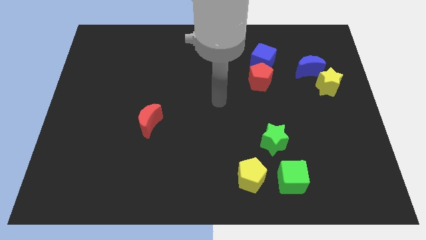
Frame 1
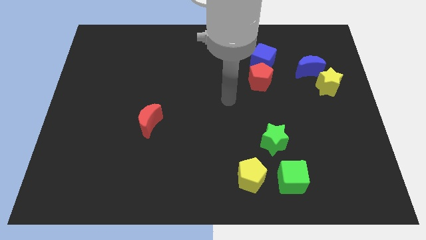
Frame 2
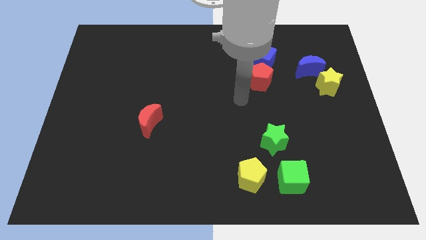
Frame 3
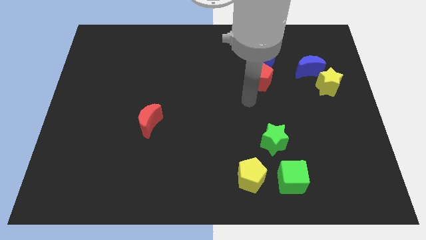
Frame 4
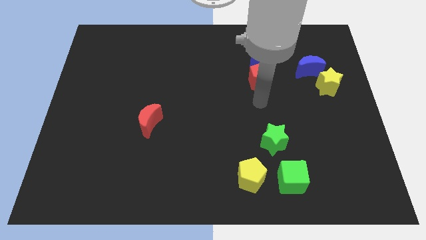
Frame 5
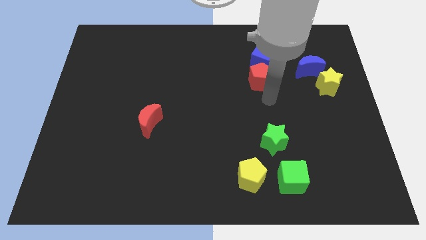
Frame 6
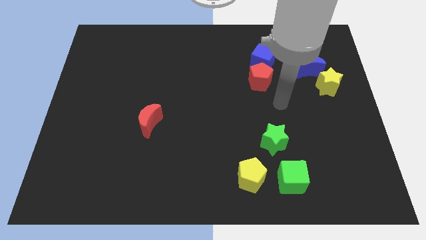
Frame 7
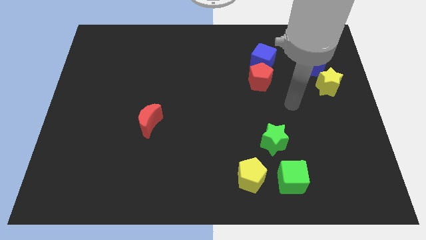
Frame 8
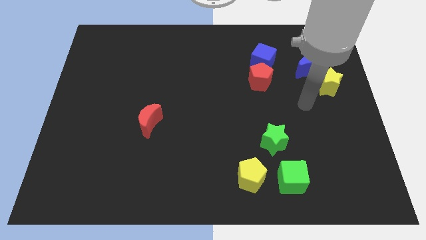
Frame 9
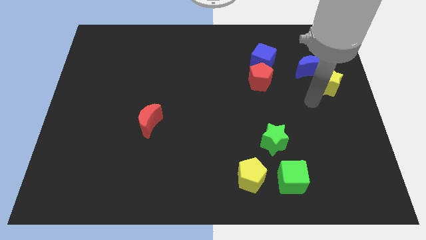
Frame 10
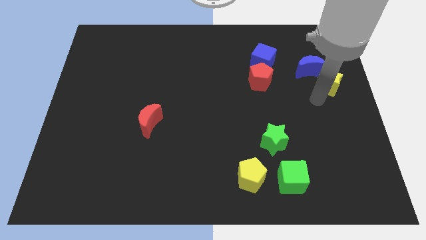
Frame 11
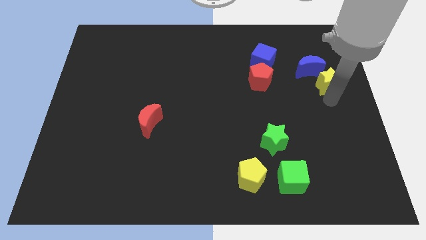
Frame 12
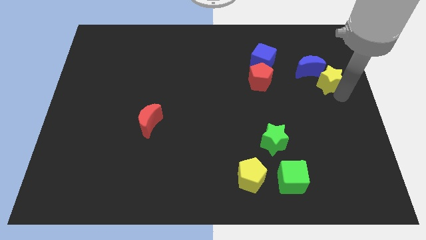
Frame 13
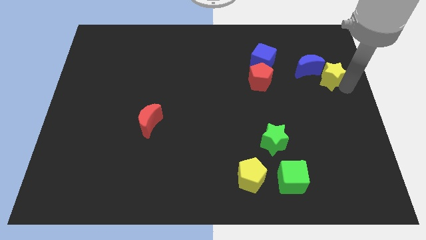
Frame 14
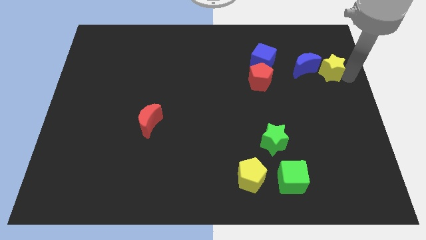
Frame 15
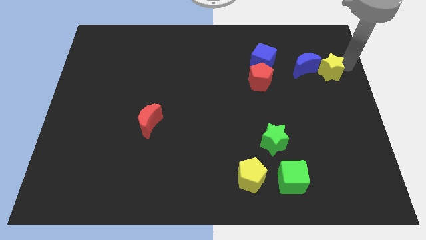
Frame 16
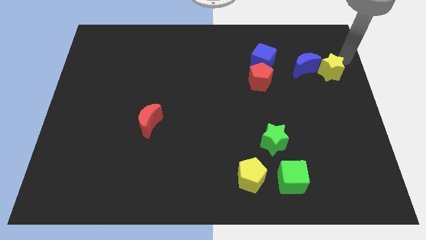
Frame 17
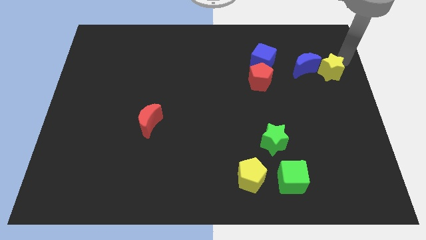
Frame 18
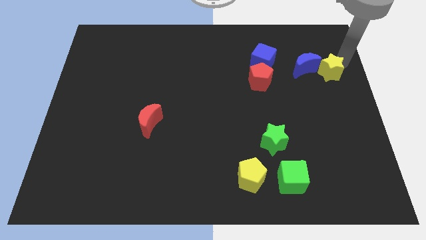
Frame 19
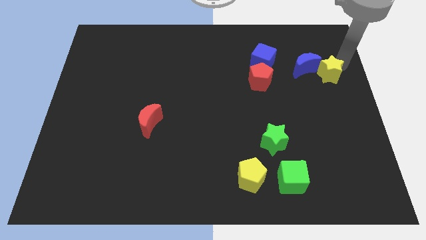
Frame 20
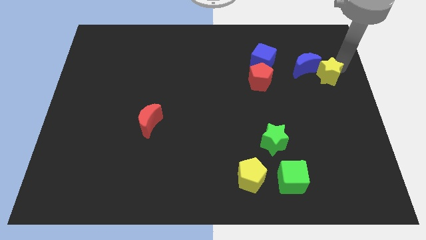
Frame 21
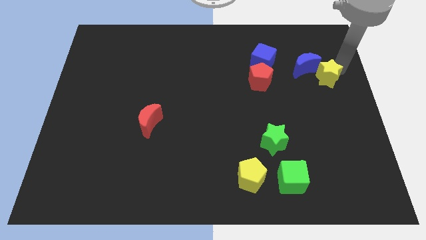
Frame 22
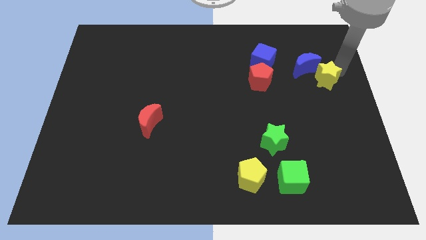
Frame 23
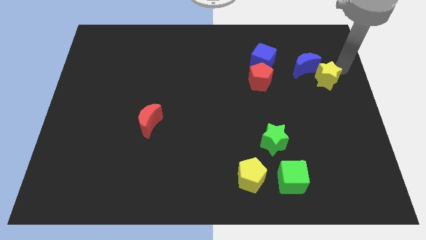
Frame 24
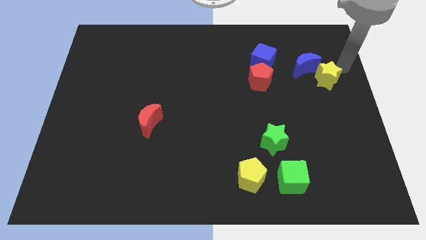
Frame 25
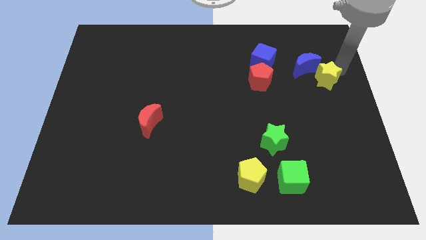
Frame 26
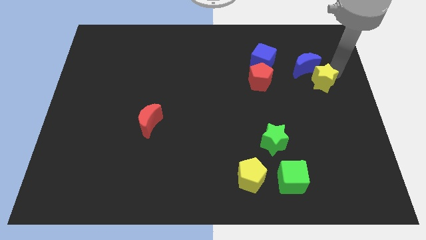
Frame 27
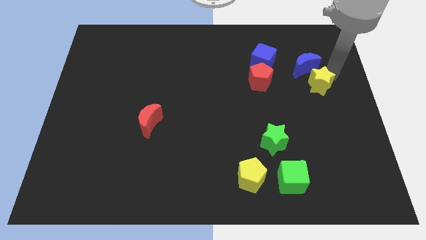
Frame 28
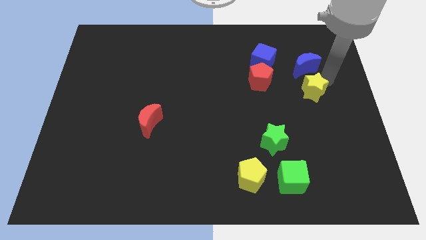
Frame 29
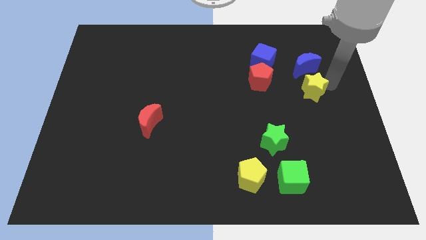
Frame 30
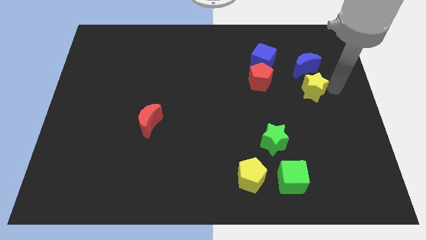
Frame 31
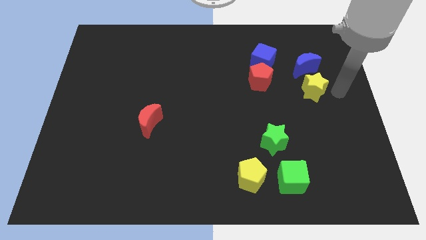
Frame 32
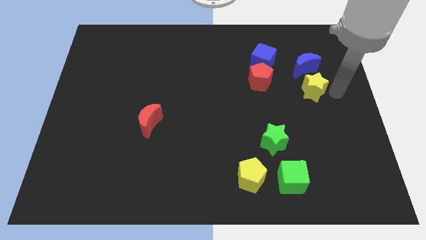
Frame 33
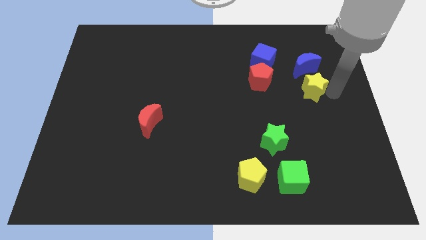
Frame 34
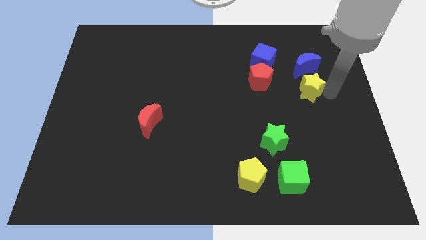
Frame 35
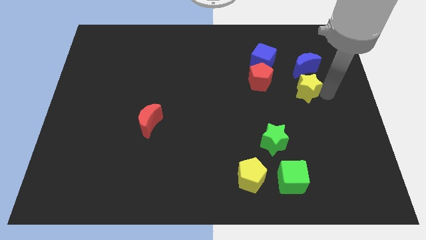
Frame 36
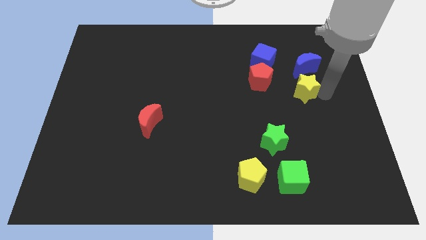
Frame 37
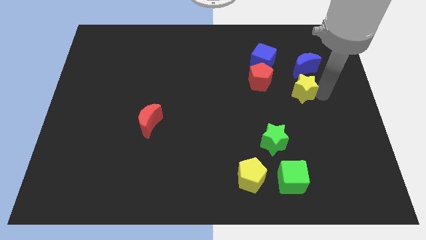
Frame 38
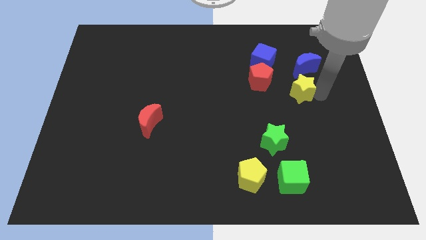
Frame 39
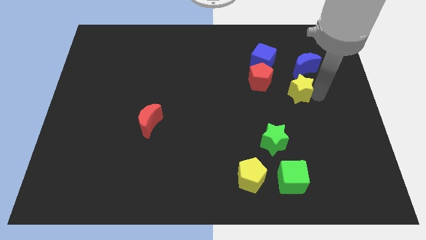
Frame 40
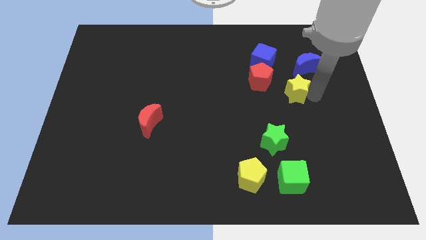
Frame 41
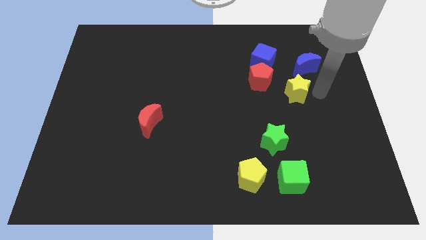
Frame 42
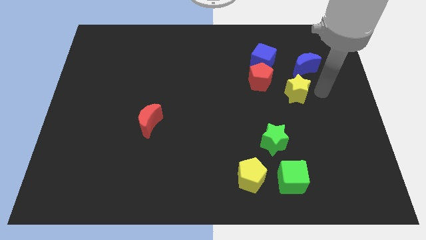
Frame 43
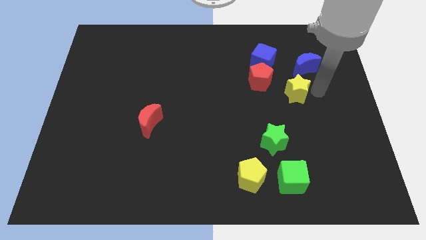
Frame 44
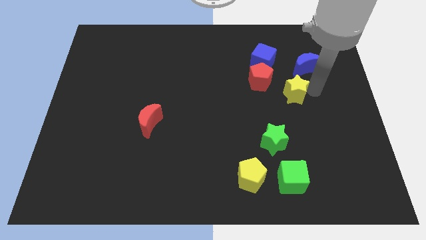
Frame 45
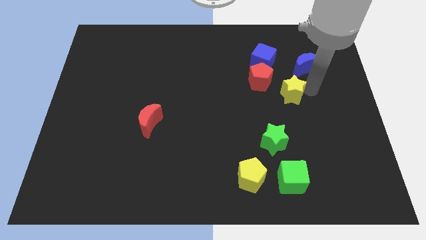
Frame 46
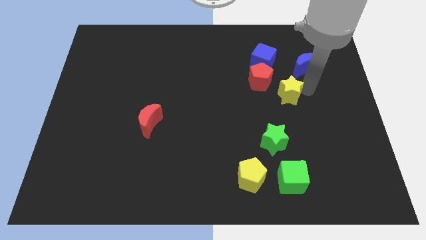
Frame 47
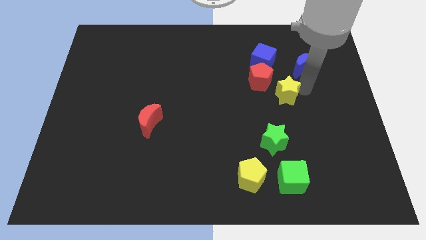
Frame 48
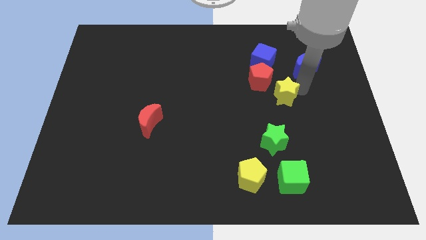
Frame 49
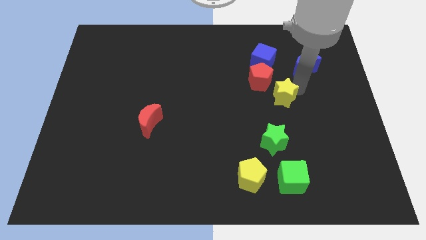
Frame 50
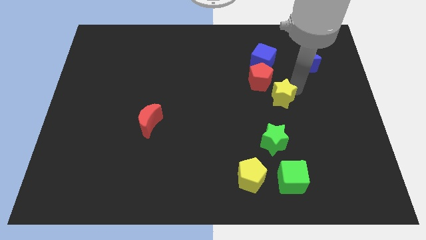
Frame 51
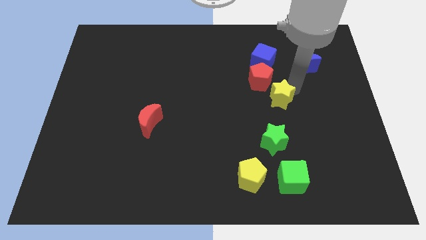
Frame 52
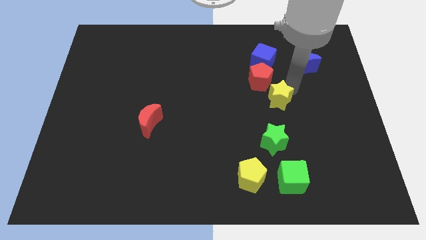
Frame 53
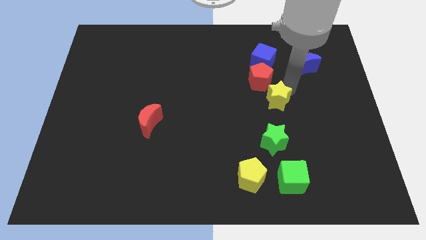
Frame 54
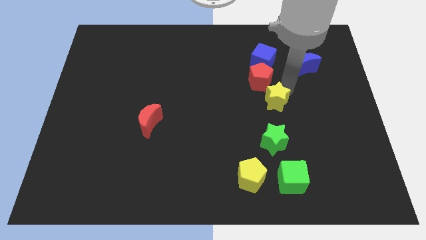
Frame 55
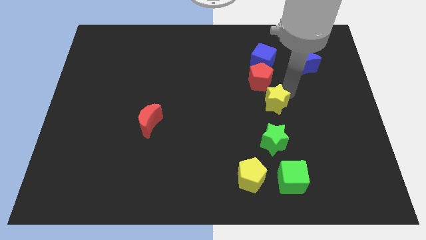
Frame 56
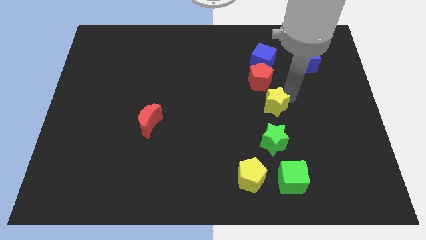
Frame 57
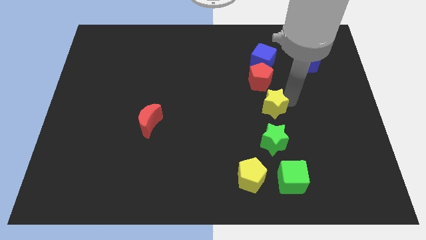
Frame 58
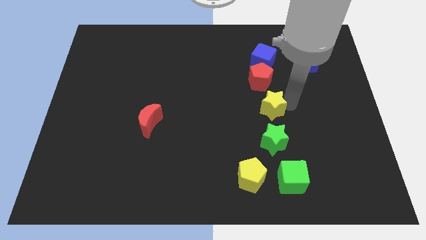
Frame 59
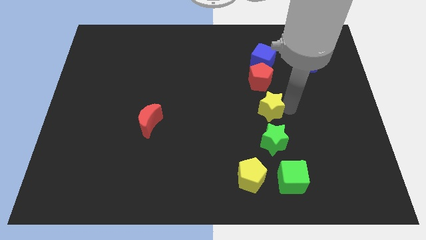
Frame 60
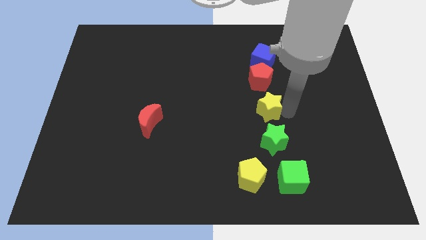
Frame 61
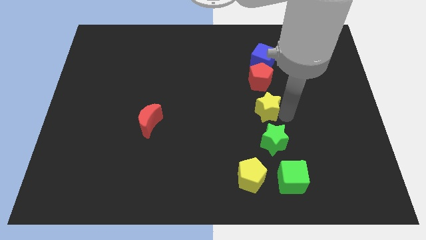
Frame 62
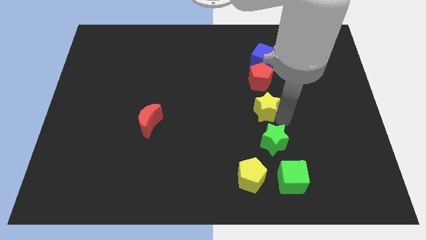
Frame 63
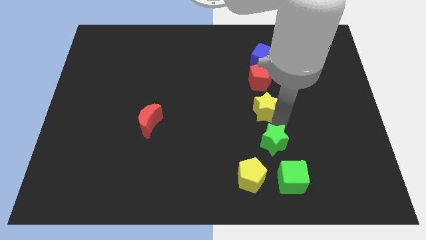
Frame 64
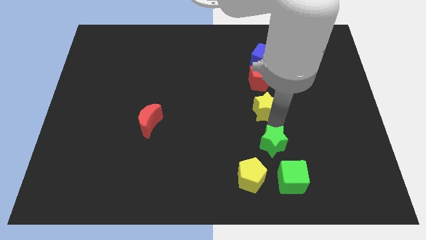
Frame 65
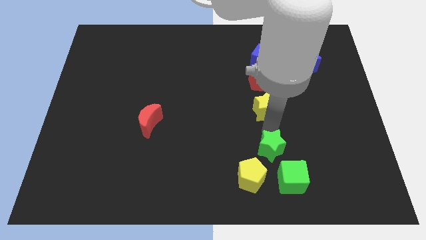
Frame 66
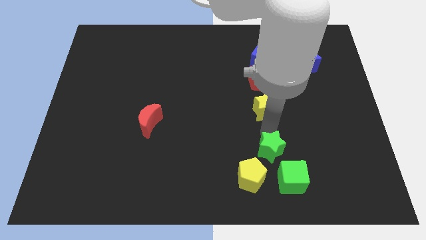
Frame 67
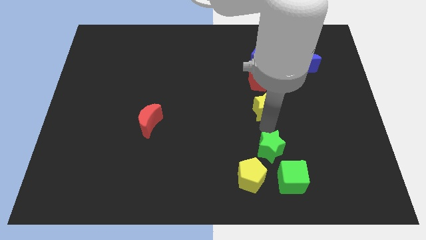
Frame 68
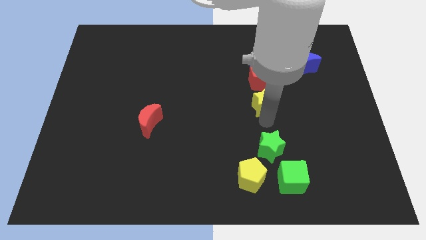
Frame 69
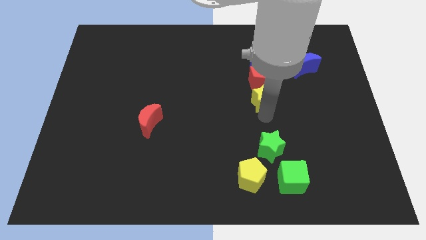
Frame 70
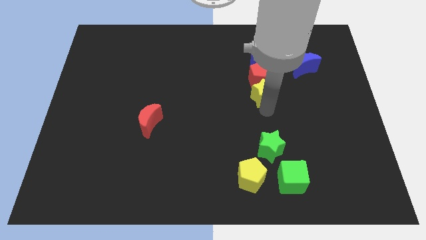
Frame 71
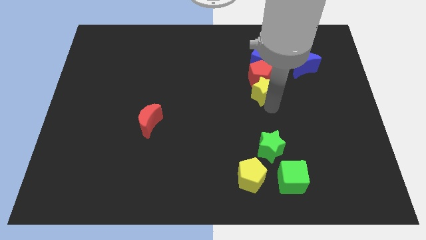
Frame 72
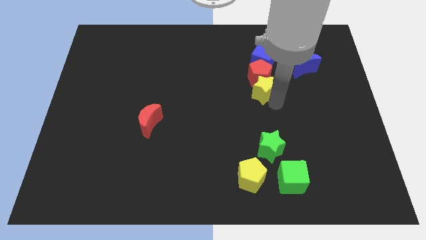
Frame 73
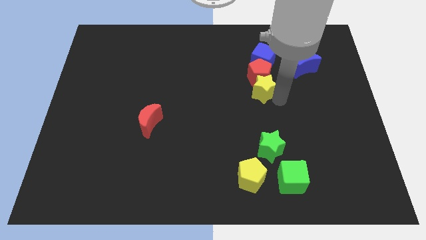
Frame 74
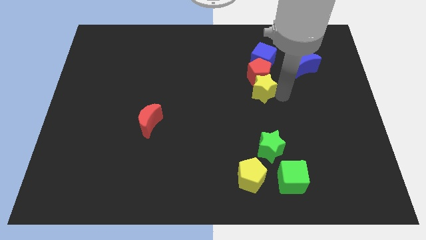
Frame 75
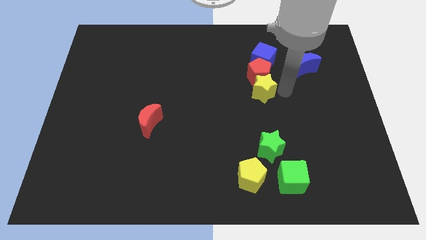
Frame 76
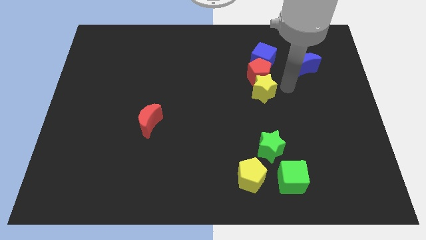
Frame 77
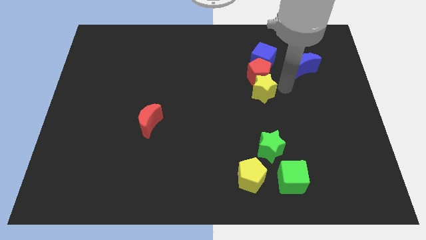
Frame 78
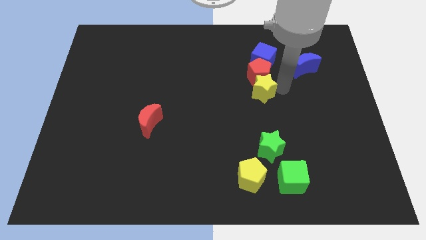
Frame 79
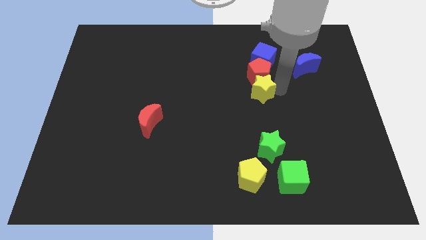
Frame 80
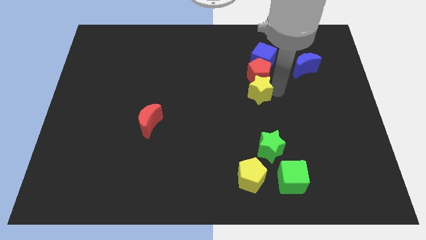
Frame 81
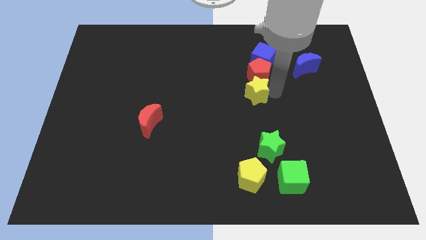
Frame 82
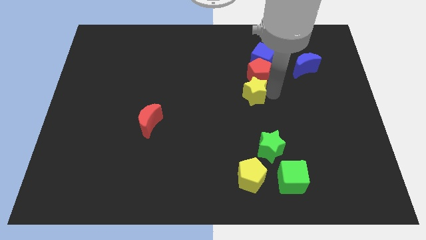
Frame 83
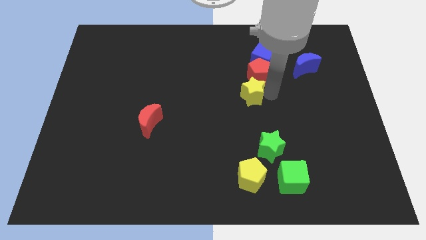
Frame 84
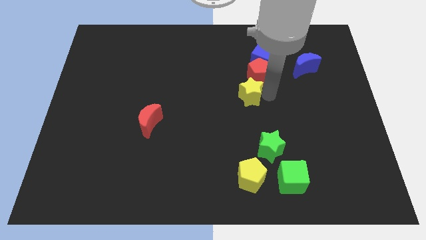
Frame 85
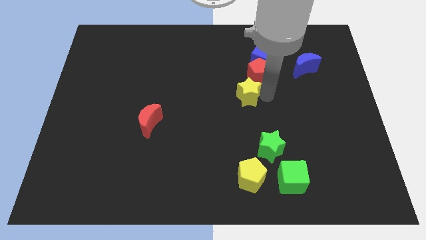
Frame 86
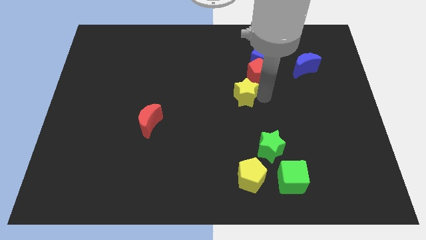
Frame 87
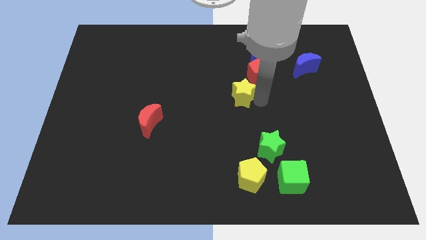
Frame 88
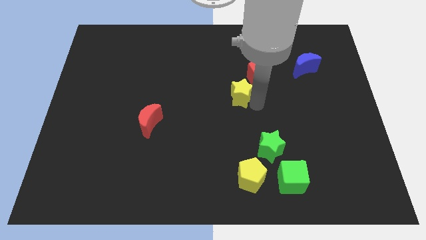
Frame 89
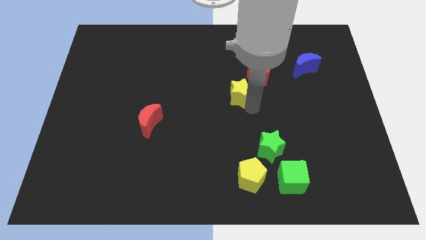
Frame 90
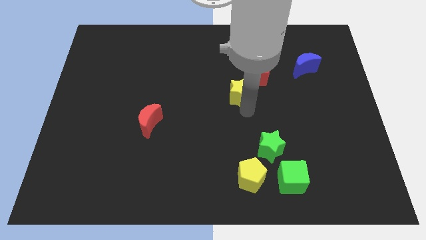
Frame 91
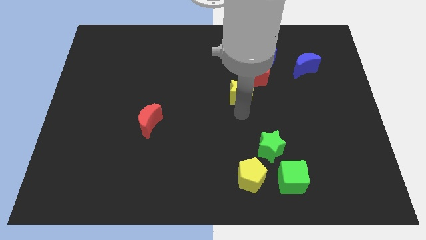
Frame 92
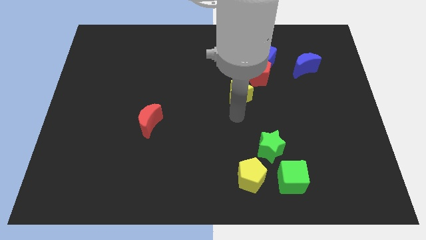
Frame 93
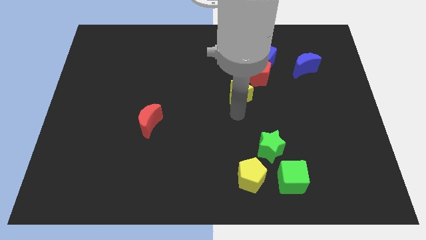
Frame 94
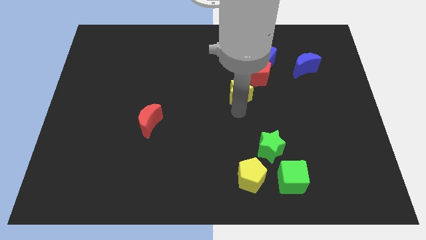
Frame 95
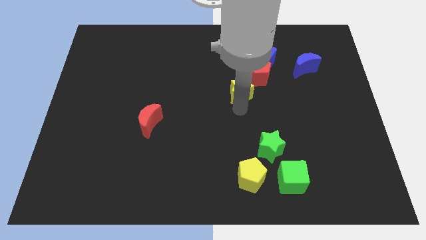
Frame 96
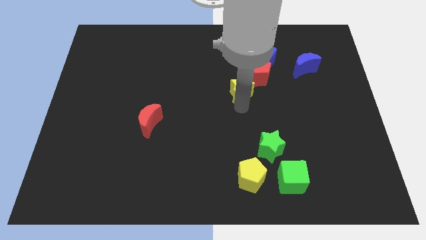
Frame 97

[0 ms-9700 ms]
slide the yellow star to the bottom left side of the blue cube
